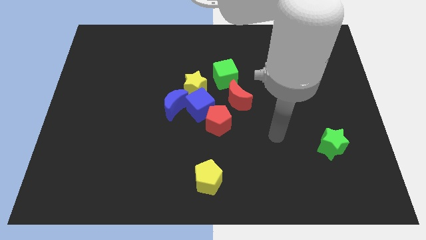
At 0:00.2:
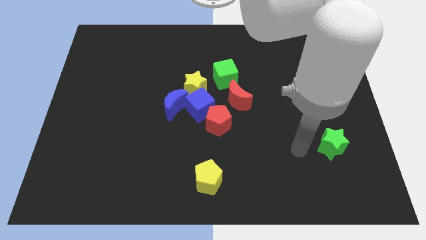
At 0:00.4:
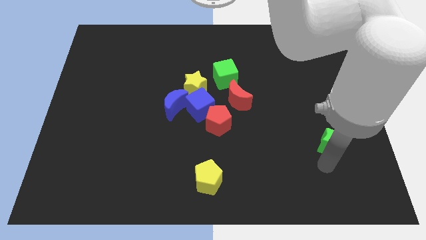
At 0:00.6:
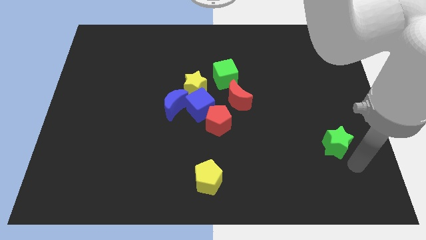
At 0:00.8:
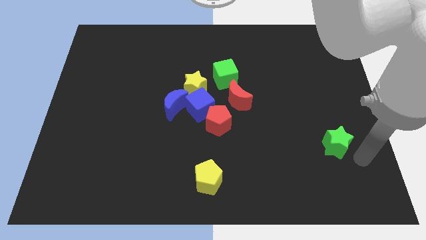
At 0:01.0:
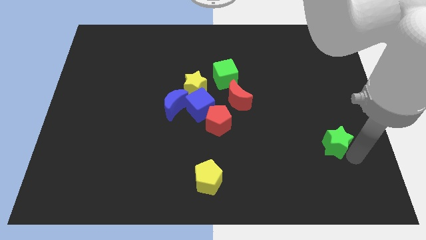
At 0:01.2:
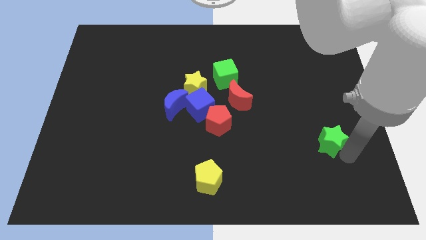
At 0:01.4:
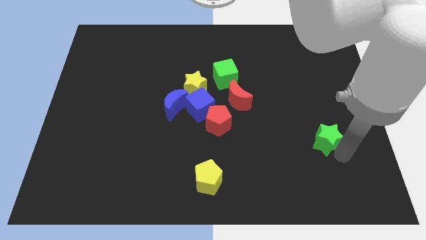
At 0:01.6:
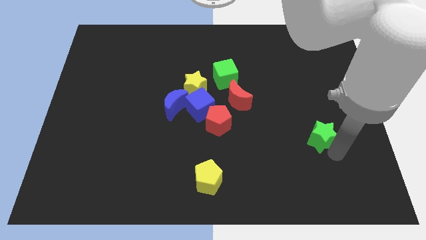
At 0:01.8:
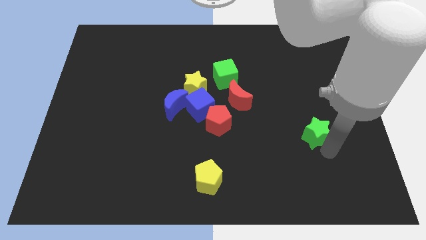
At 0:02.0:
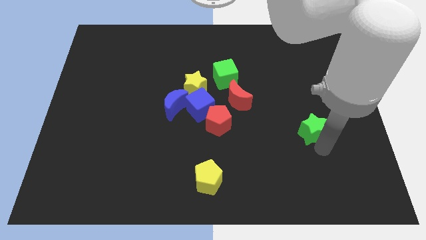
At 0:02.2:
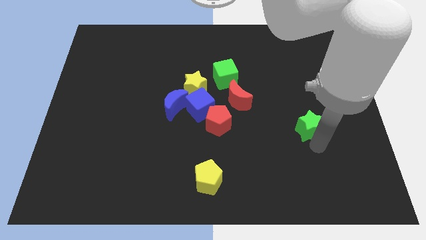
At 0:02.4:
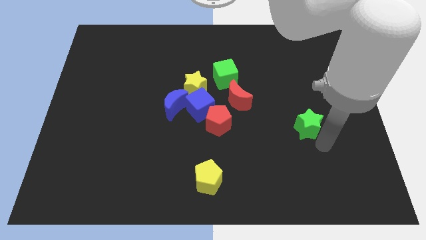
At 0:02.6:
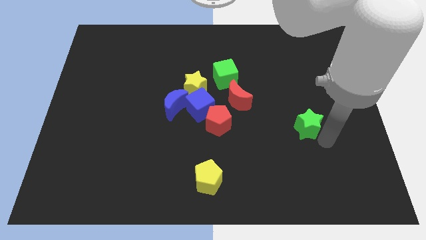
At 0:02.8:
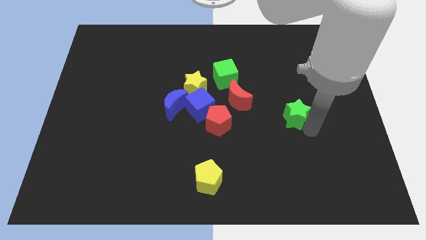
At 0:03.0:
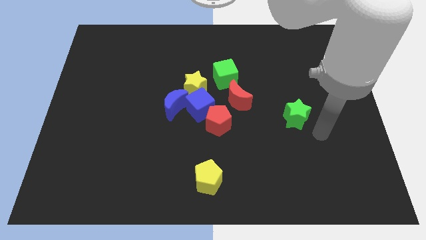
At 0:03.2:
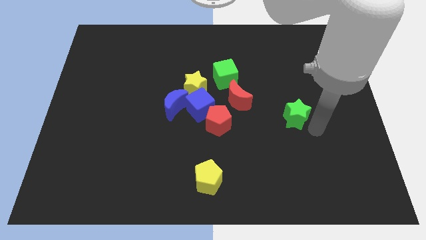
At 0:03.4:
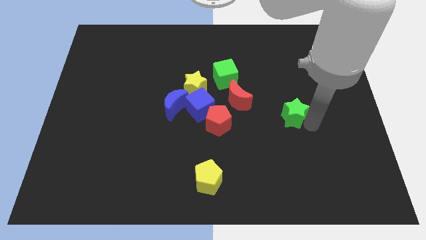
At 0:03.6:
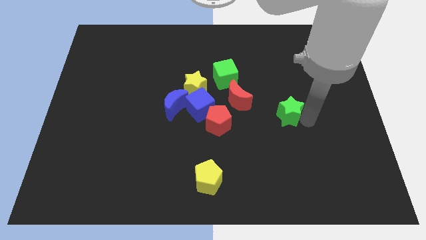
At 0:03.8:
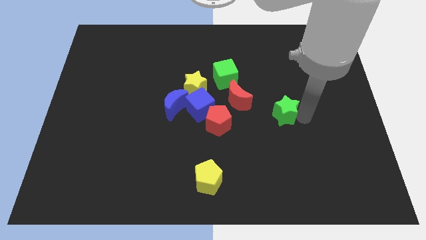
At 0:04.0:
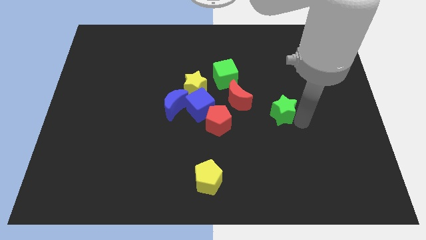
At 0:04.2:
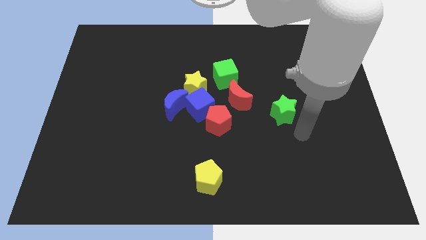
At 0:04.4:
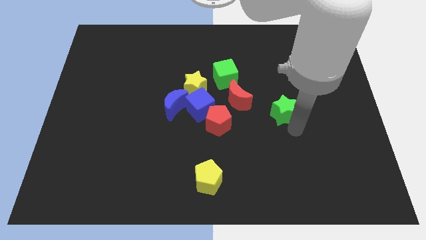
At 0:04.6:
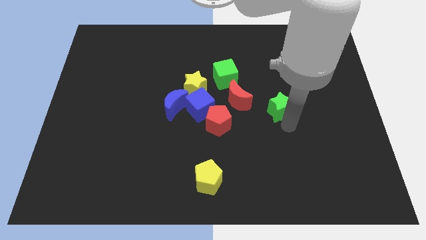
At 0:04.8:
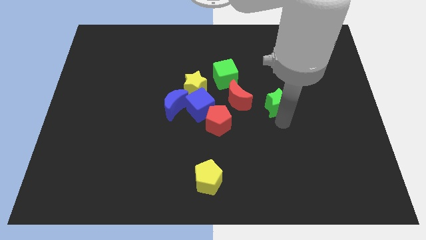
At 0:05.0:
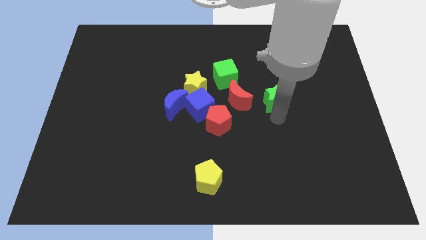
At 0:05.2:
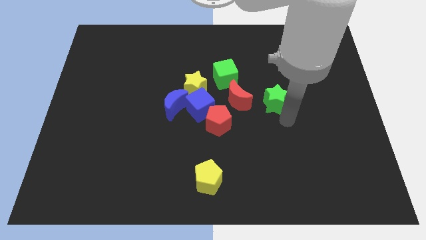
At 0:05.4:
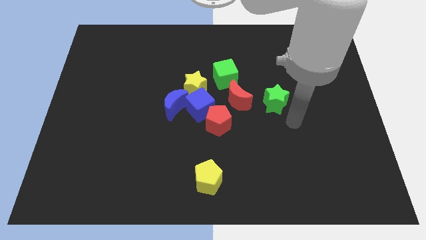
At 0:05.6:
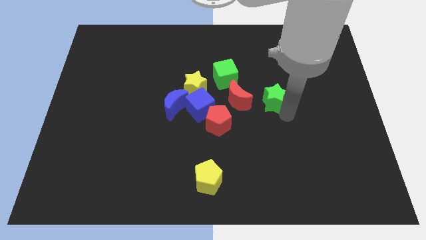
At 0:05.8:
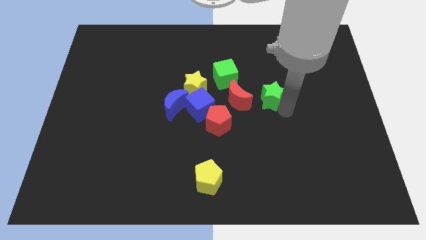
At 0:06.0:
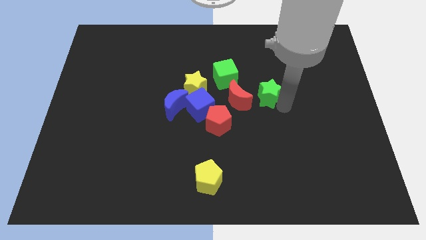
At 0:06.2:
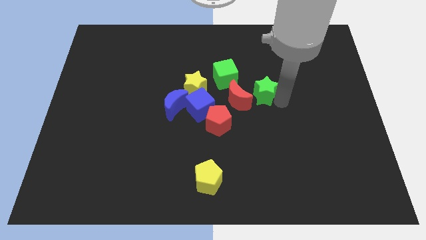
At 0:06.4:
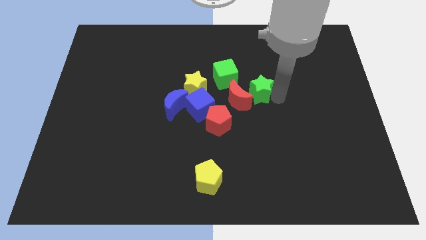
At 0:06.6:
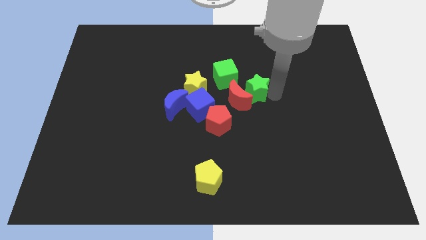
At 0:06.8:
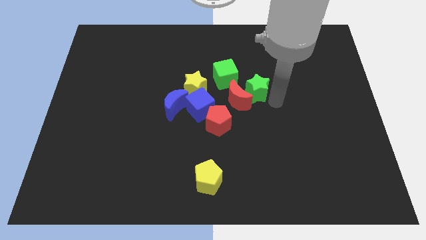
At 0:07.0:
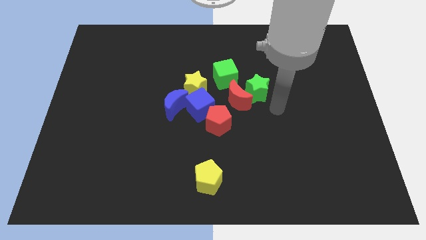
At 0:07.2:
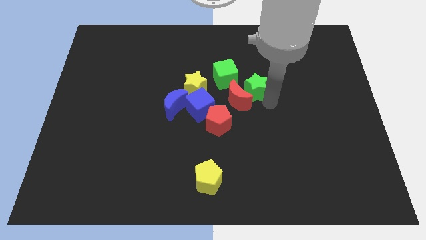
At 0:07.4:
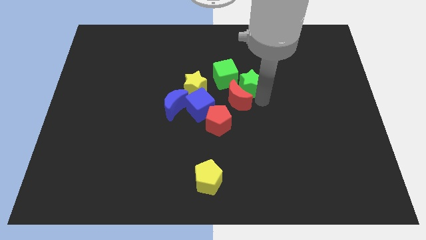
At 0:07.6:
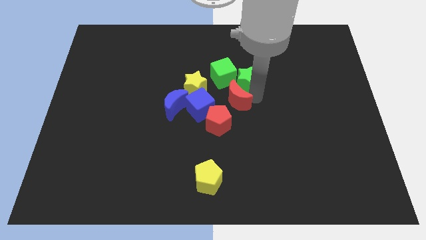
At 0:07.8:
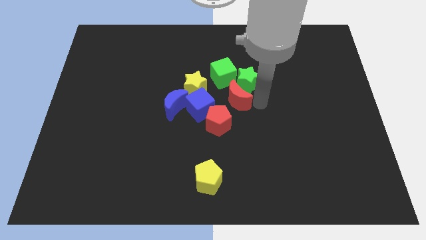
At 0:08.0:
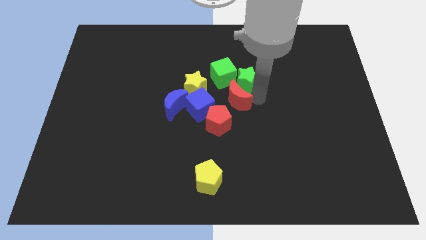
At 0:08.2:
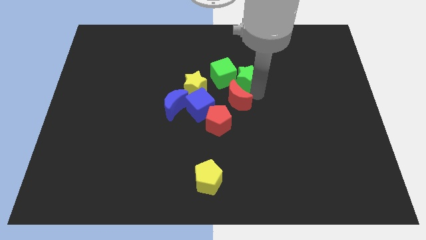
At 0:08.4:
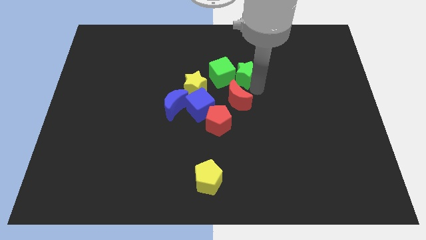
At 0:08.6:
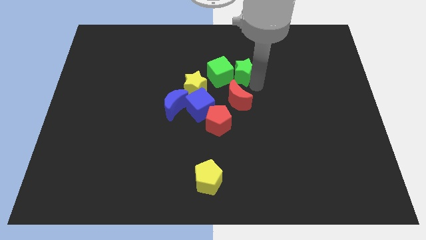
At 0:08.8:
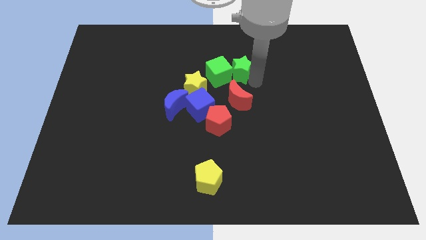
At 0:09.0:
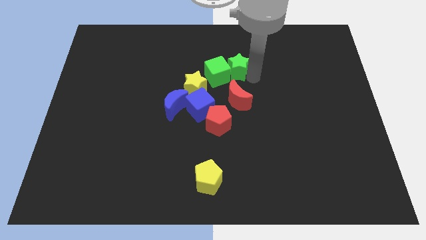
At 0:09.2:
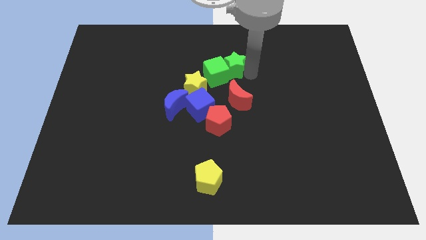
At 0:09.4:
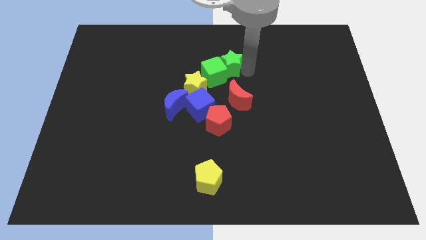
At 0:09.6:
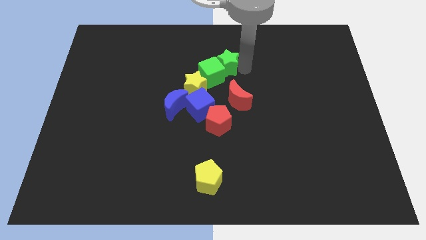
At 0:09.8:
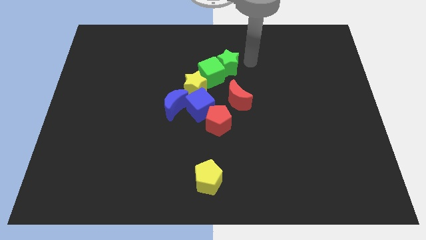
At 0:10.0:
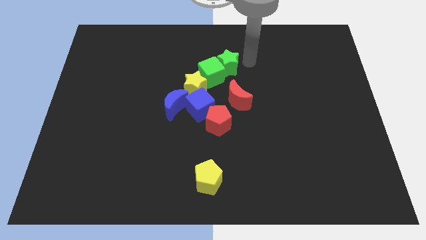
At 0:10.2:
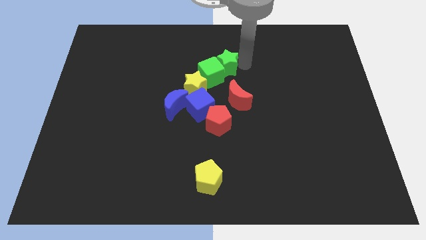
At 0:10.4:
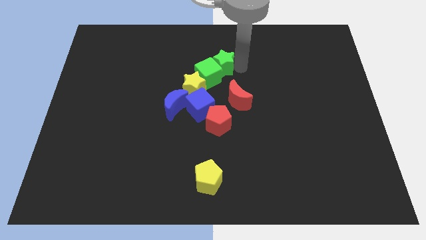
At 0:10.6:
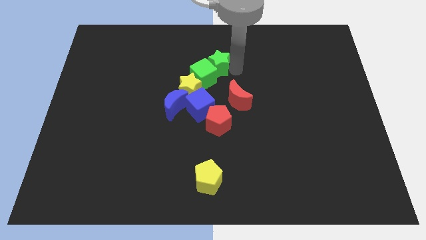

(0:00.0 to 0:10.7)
move the green star above the blue cube

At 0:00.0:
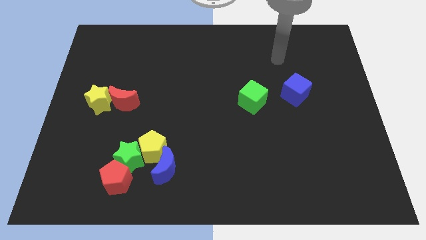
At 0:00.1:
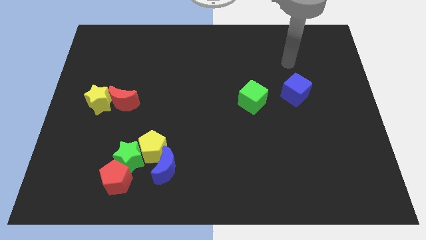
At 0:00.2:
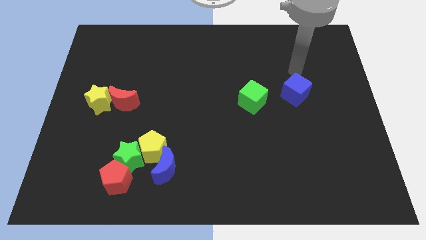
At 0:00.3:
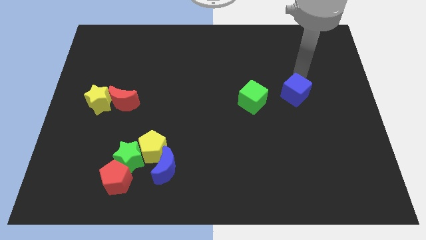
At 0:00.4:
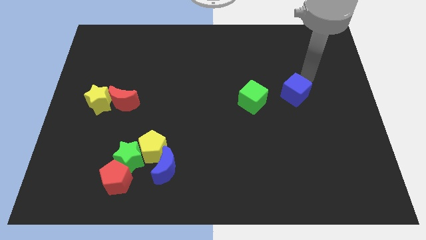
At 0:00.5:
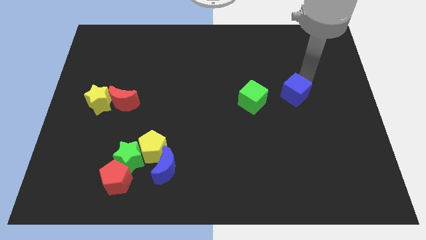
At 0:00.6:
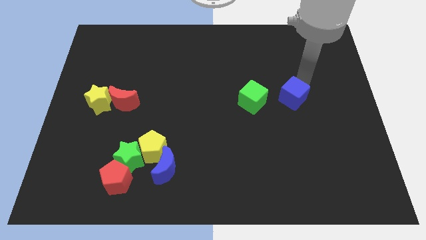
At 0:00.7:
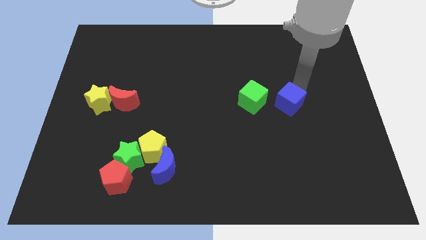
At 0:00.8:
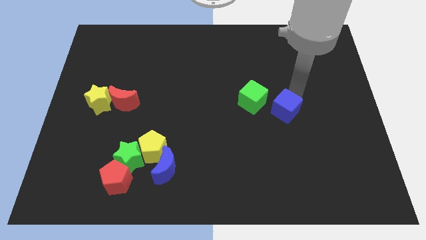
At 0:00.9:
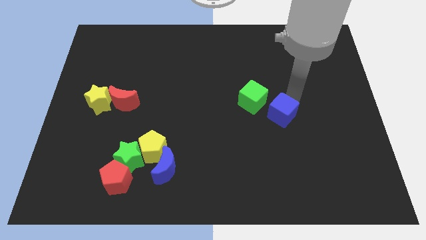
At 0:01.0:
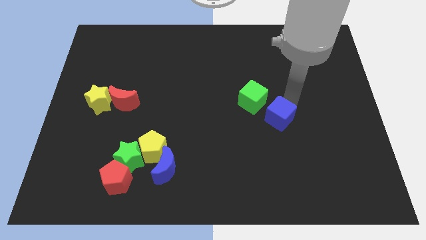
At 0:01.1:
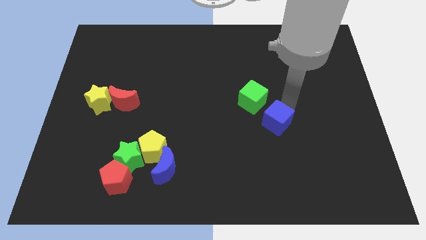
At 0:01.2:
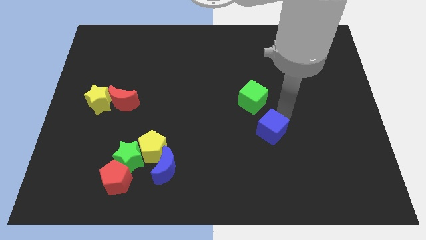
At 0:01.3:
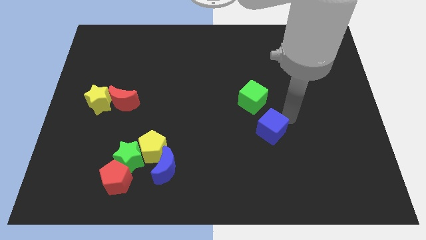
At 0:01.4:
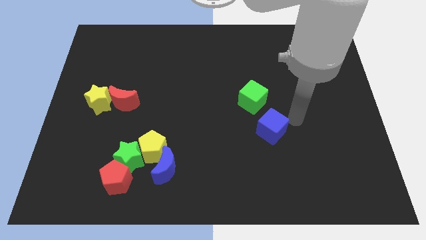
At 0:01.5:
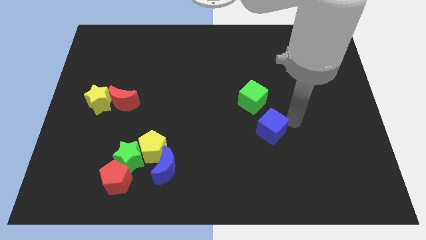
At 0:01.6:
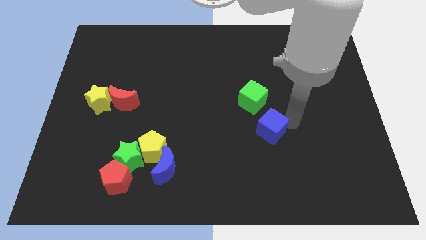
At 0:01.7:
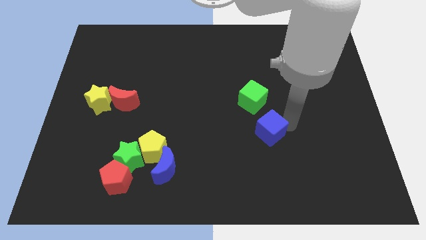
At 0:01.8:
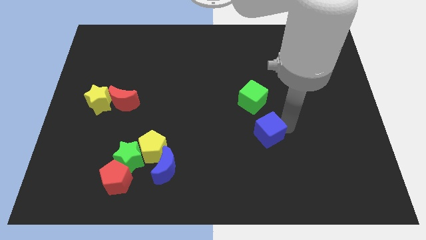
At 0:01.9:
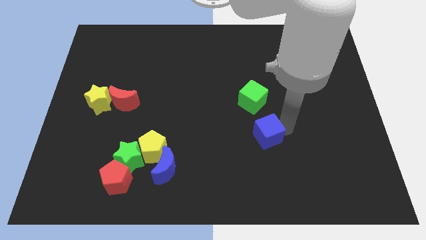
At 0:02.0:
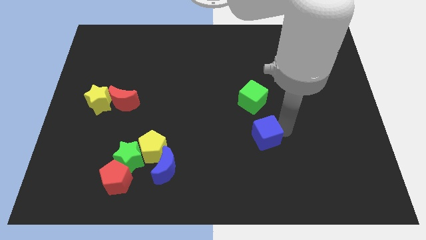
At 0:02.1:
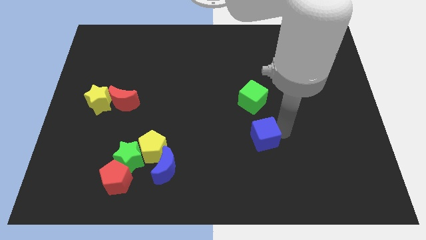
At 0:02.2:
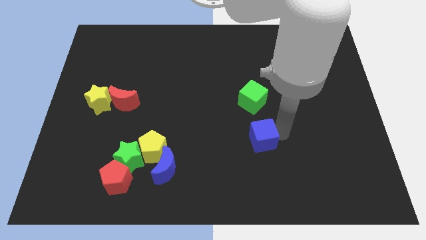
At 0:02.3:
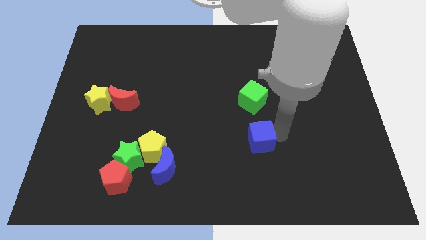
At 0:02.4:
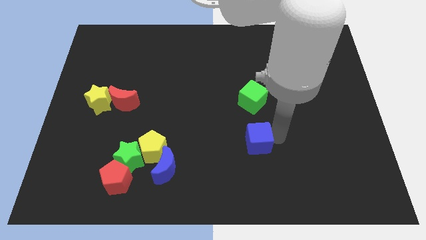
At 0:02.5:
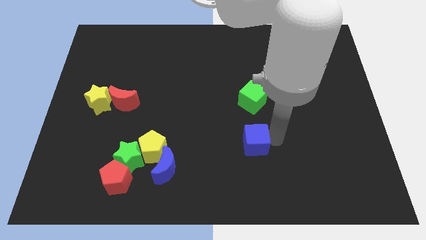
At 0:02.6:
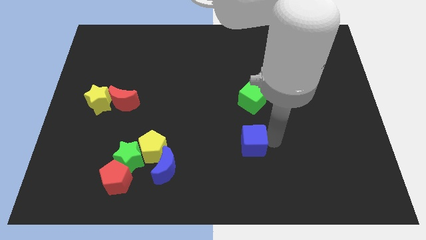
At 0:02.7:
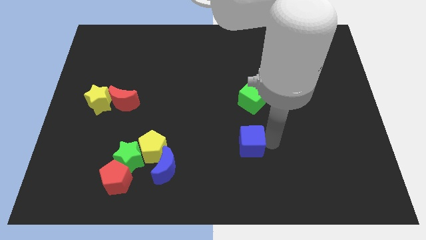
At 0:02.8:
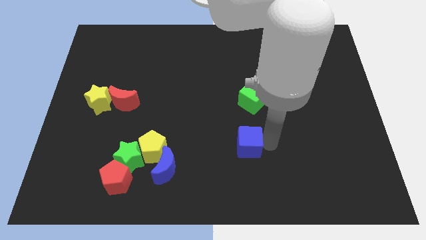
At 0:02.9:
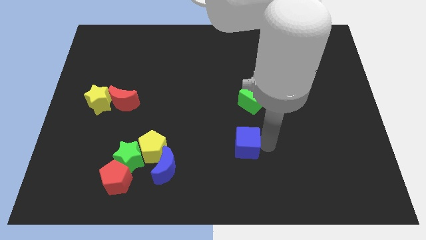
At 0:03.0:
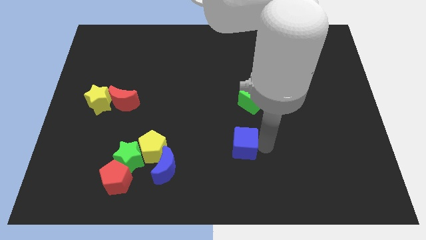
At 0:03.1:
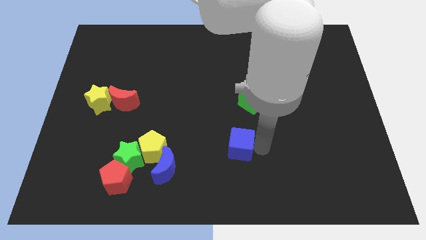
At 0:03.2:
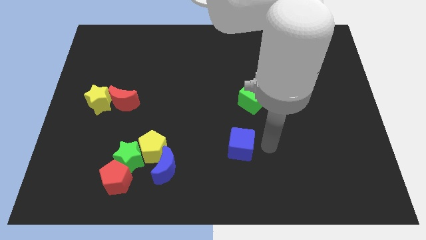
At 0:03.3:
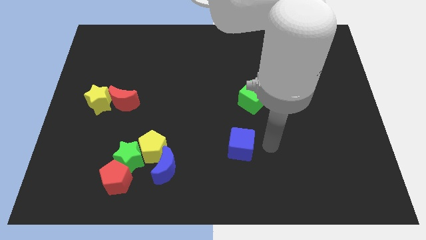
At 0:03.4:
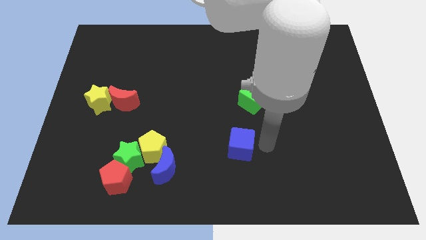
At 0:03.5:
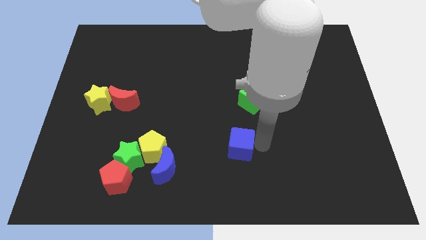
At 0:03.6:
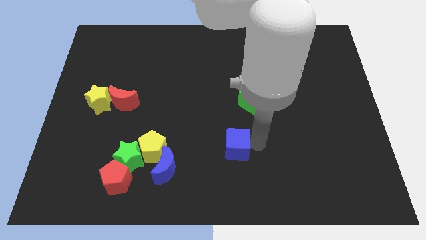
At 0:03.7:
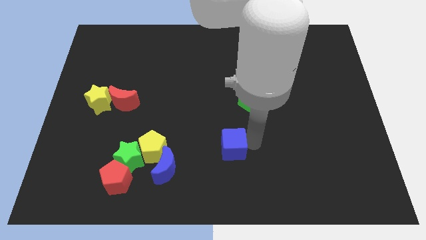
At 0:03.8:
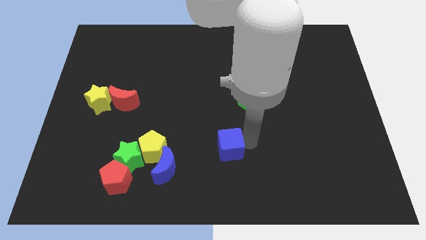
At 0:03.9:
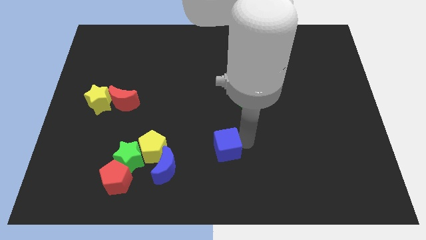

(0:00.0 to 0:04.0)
push the blue cube right of the yellow pentagon
